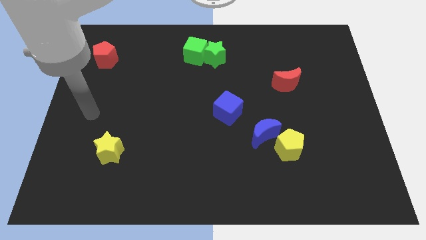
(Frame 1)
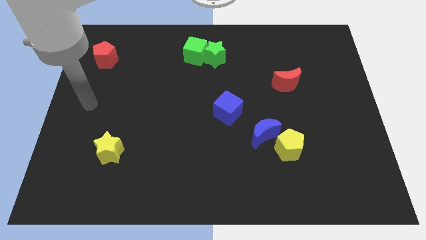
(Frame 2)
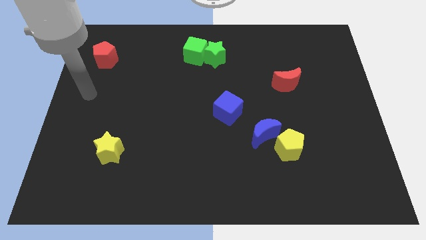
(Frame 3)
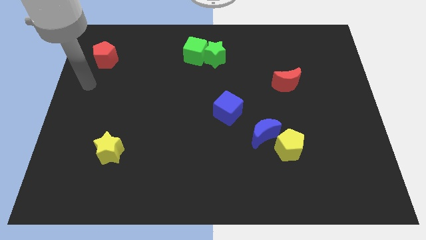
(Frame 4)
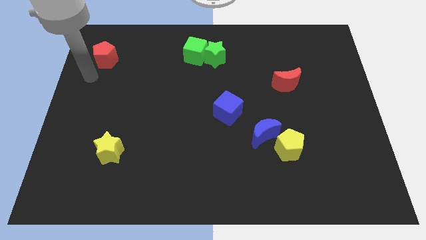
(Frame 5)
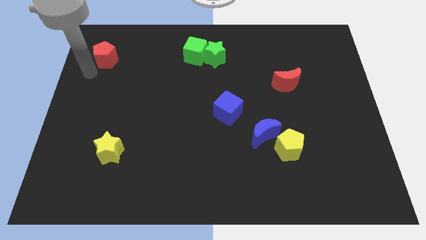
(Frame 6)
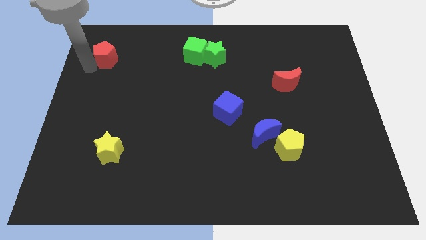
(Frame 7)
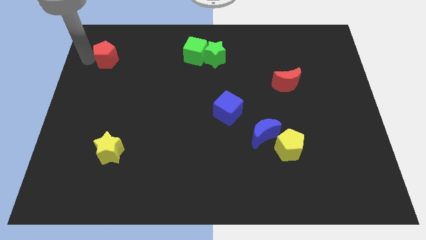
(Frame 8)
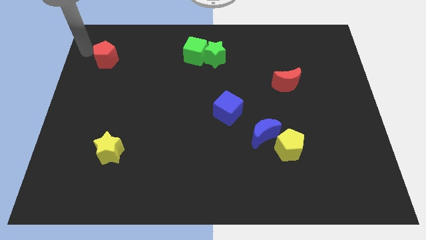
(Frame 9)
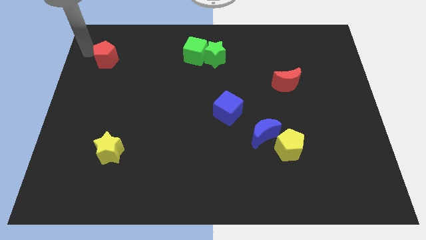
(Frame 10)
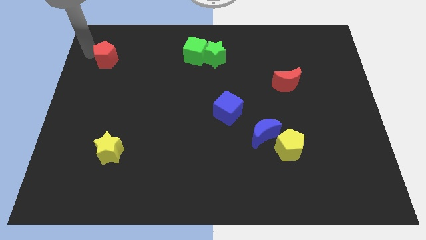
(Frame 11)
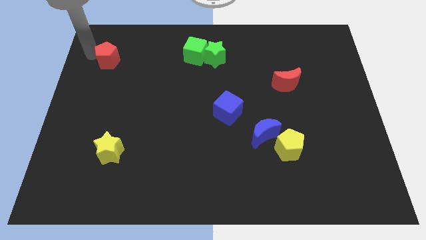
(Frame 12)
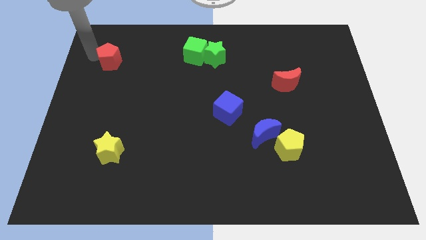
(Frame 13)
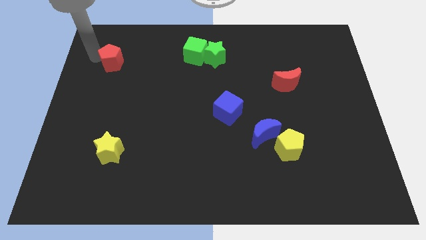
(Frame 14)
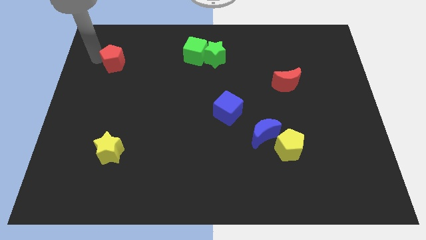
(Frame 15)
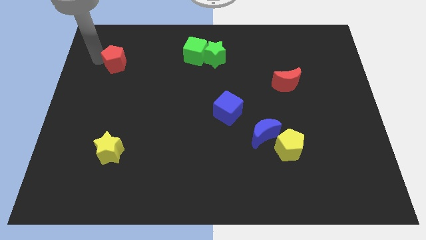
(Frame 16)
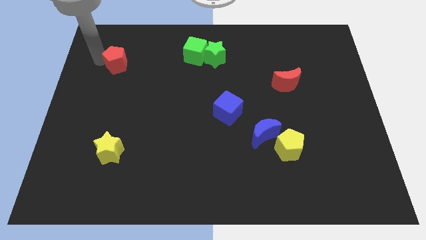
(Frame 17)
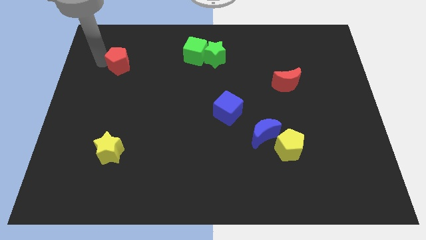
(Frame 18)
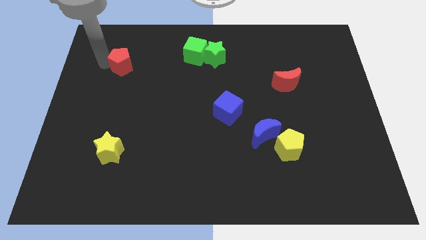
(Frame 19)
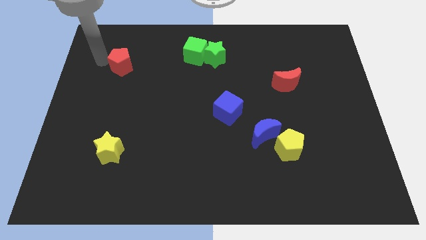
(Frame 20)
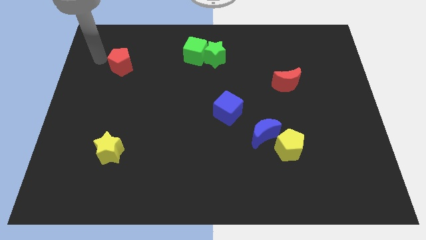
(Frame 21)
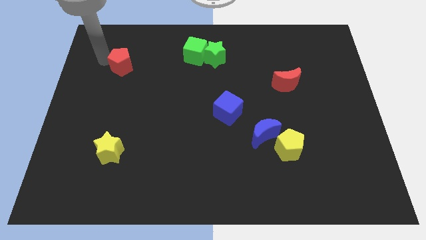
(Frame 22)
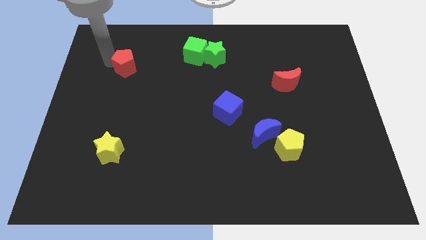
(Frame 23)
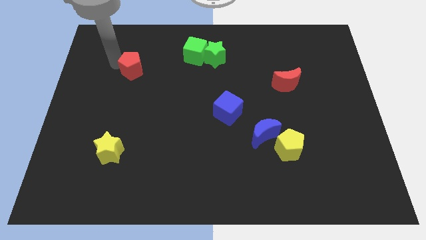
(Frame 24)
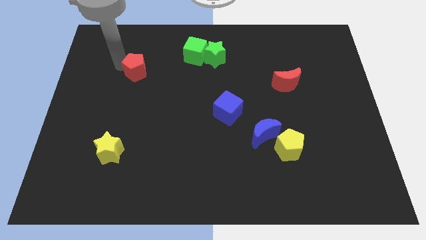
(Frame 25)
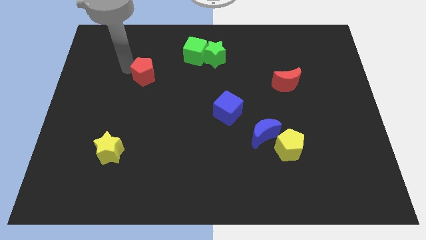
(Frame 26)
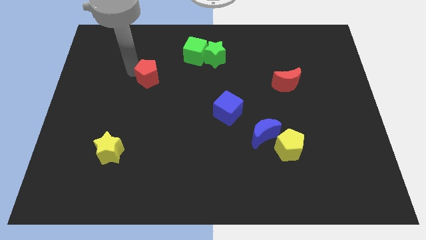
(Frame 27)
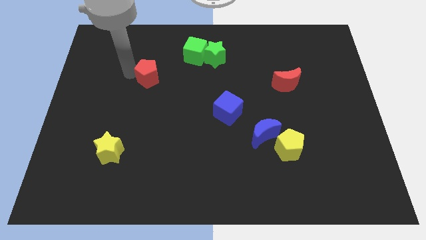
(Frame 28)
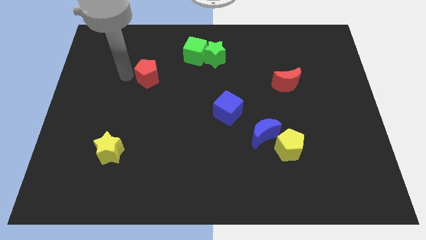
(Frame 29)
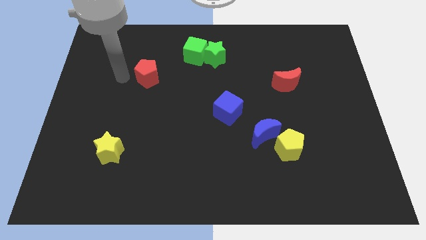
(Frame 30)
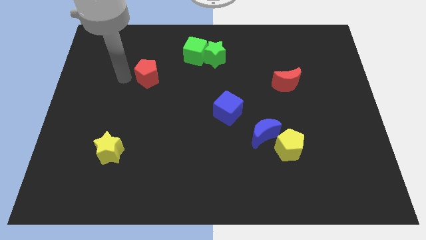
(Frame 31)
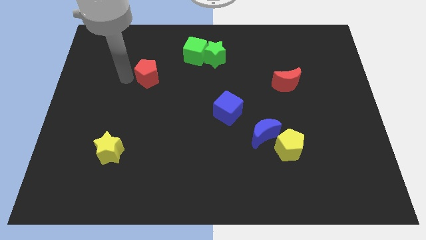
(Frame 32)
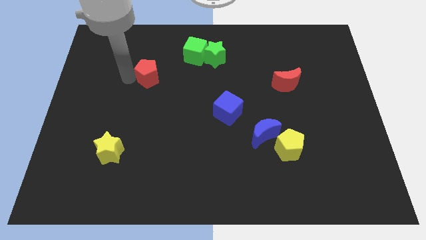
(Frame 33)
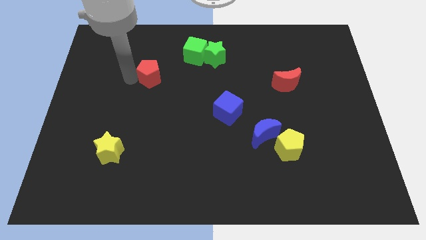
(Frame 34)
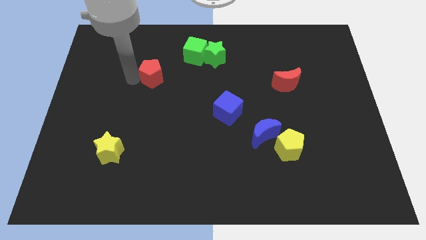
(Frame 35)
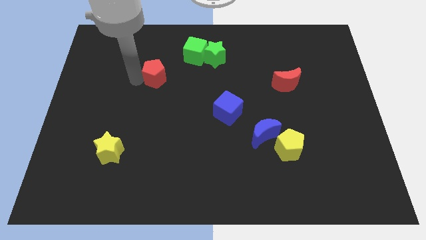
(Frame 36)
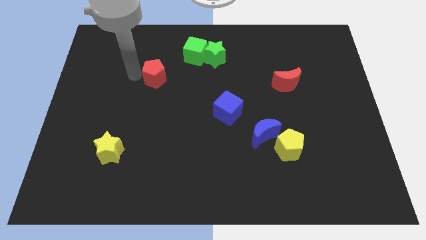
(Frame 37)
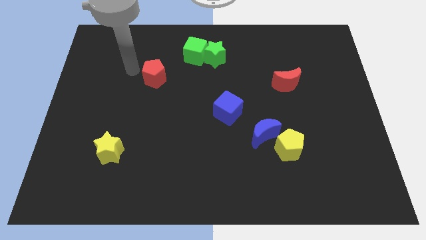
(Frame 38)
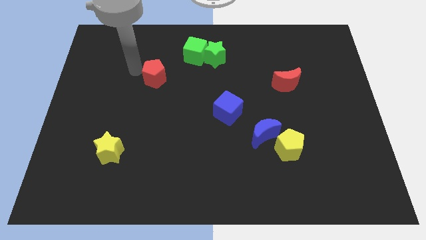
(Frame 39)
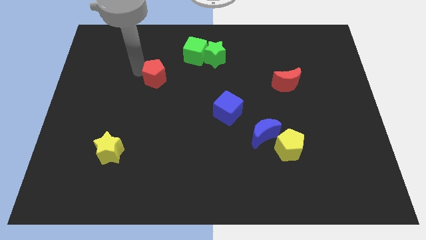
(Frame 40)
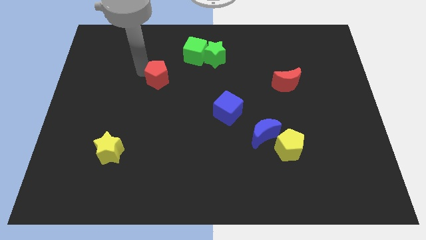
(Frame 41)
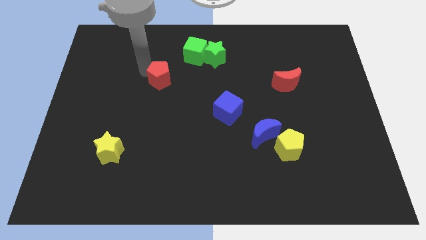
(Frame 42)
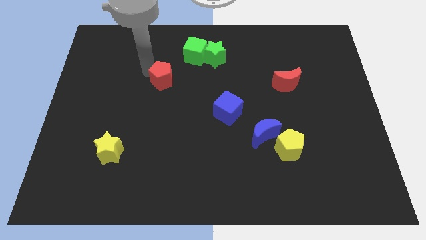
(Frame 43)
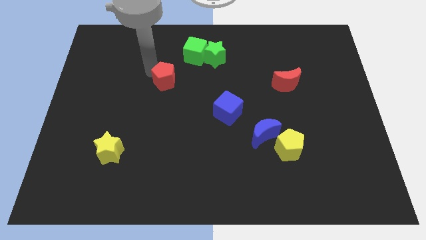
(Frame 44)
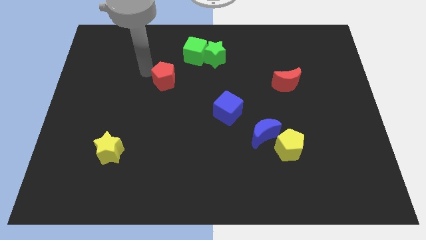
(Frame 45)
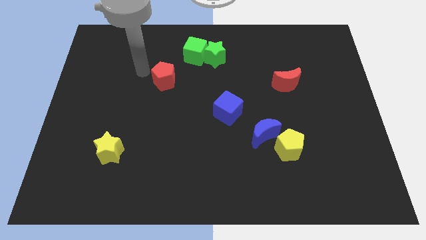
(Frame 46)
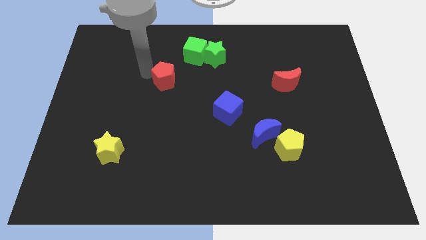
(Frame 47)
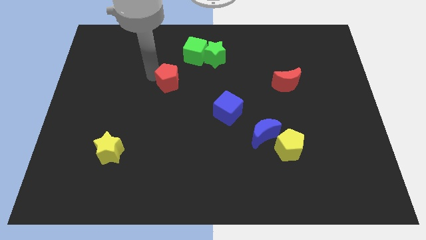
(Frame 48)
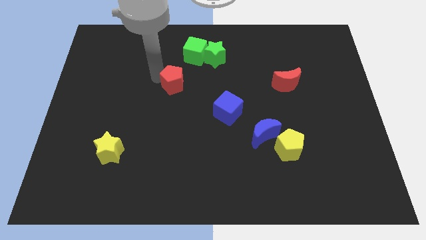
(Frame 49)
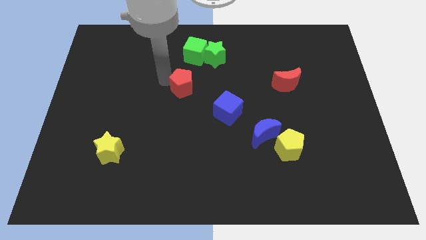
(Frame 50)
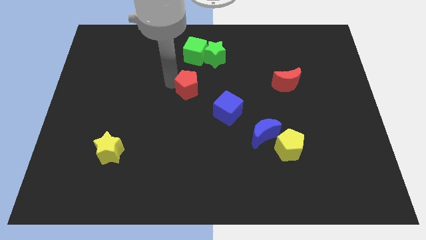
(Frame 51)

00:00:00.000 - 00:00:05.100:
slide the red pentagon to the top left of the blue cube

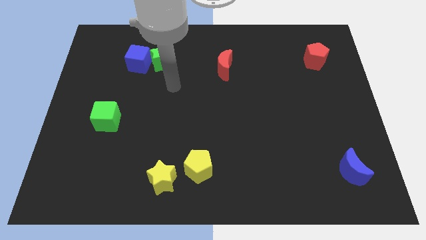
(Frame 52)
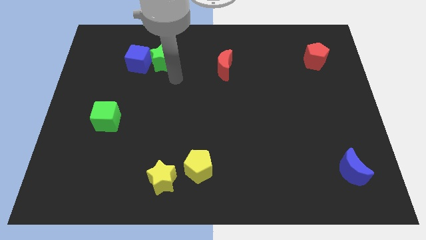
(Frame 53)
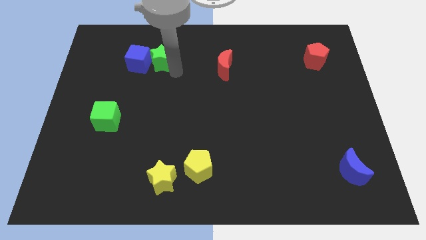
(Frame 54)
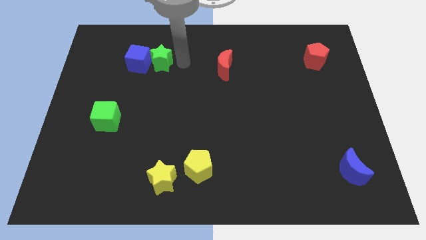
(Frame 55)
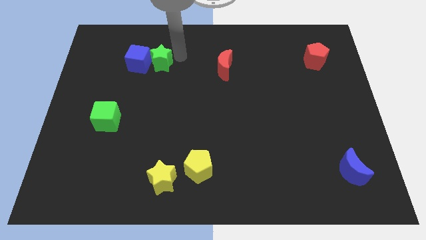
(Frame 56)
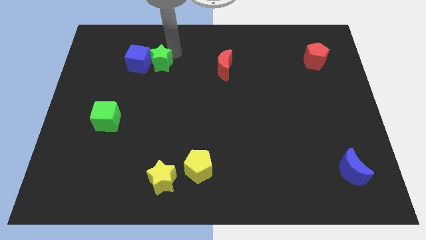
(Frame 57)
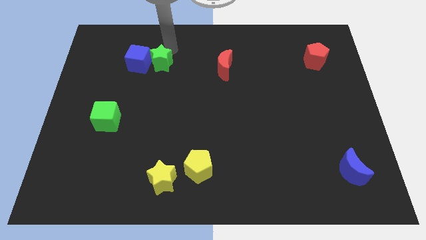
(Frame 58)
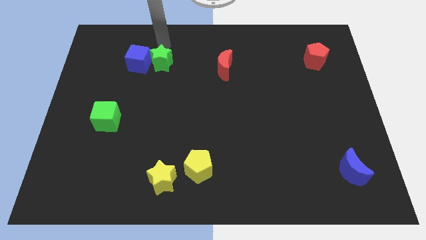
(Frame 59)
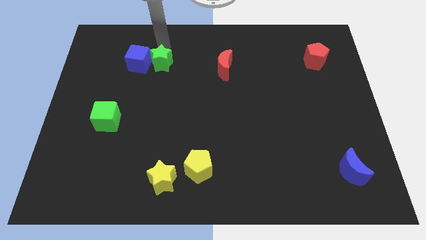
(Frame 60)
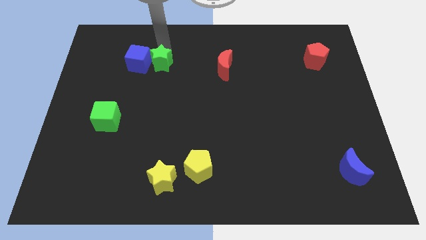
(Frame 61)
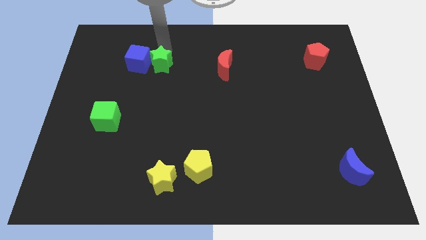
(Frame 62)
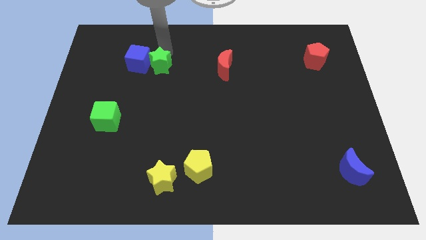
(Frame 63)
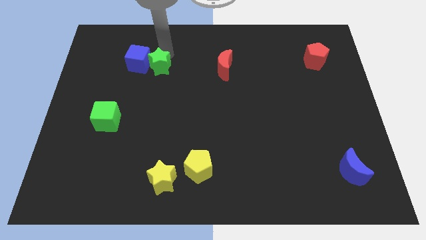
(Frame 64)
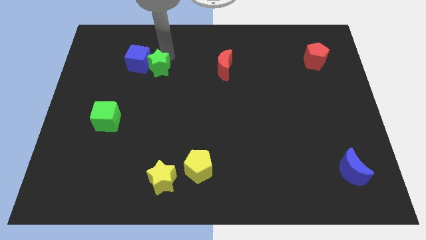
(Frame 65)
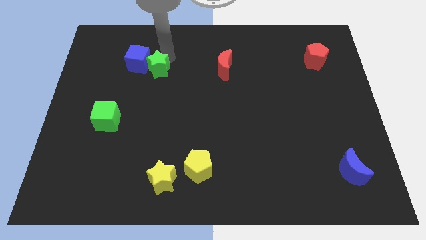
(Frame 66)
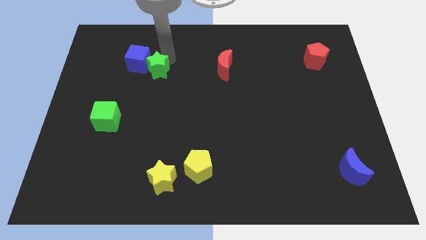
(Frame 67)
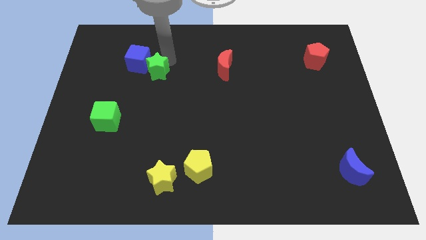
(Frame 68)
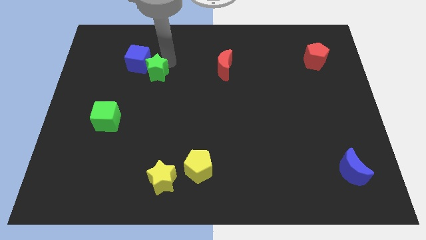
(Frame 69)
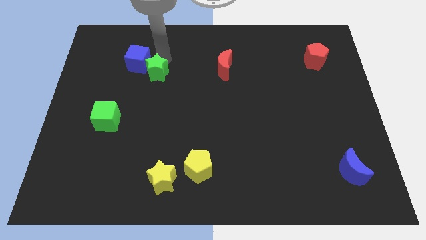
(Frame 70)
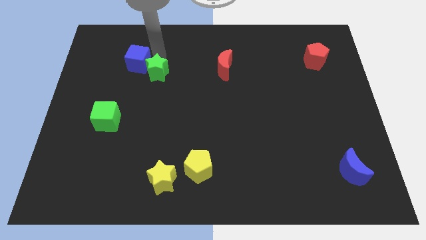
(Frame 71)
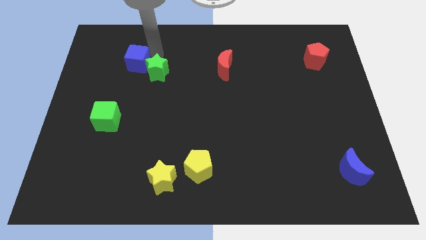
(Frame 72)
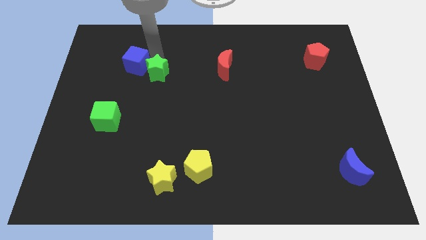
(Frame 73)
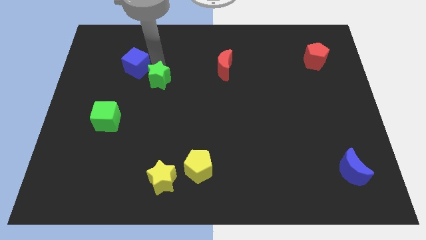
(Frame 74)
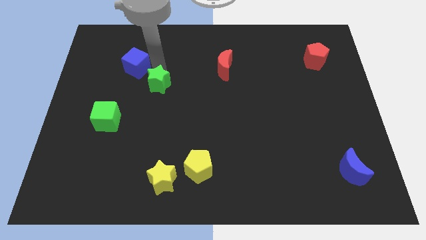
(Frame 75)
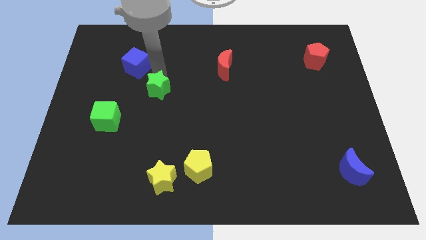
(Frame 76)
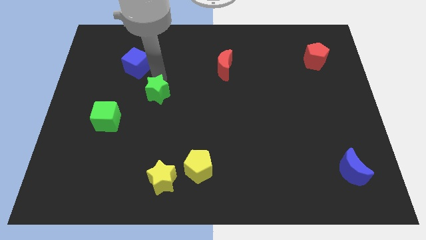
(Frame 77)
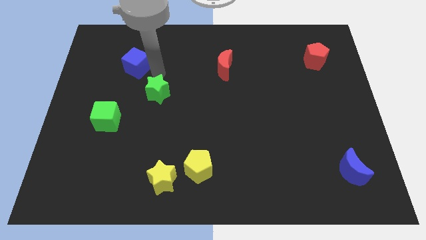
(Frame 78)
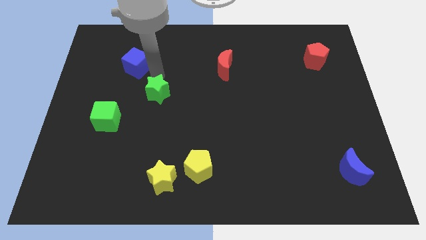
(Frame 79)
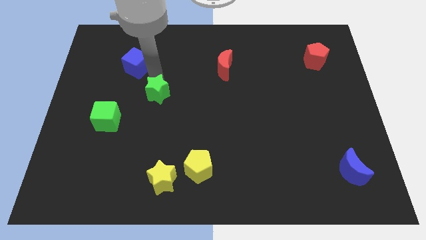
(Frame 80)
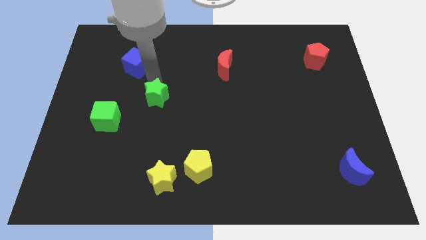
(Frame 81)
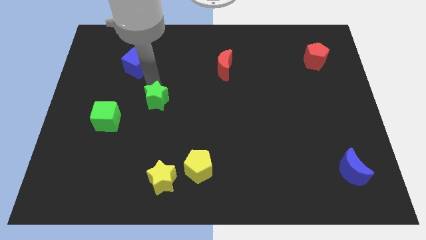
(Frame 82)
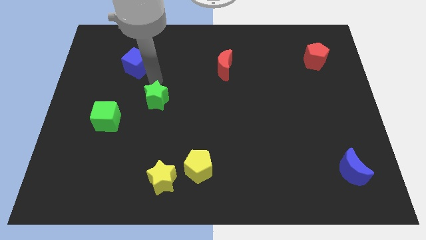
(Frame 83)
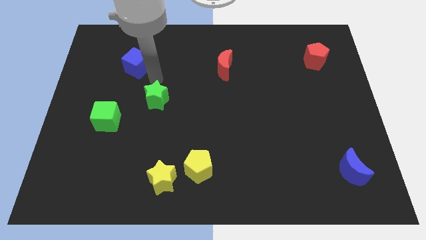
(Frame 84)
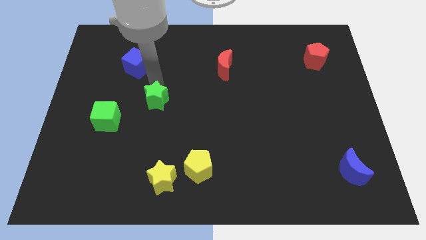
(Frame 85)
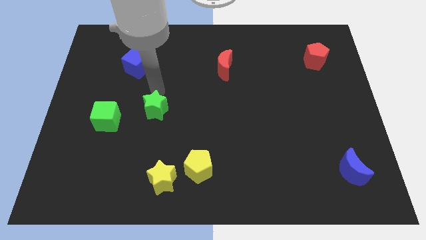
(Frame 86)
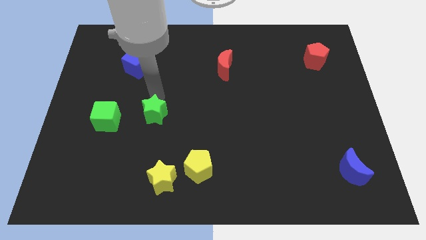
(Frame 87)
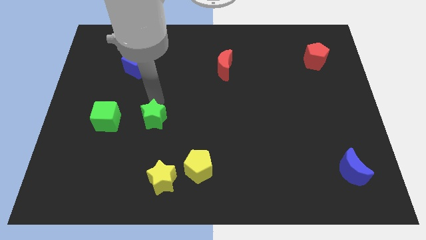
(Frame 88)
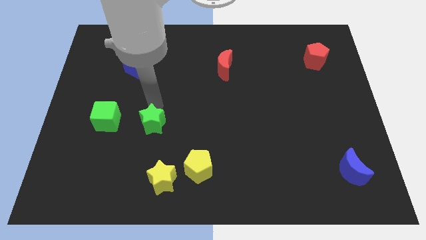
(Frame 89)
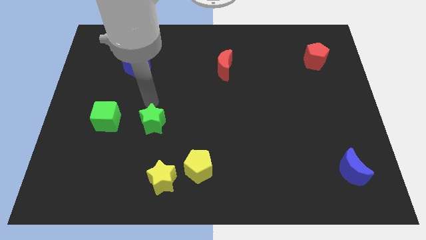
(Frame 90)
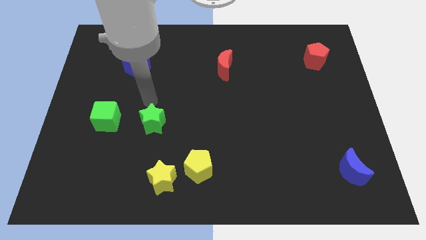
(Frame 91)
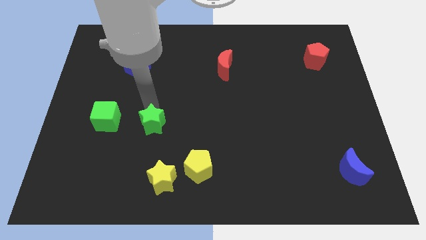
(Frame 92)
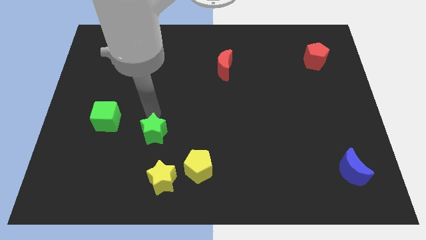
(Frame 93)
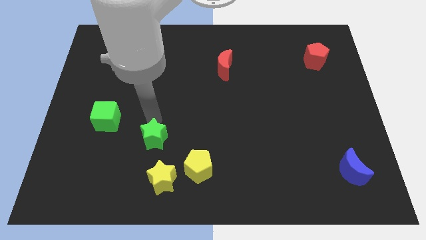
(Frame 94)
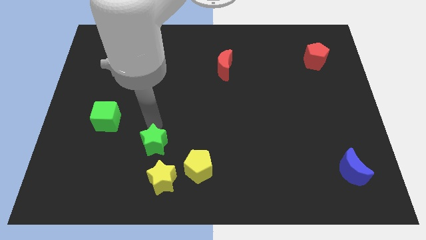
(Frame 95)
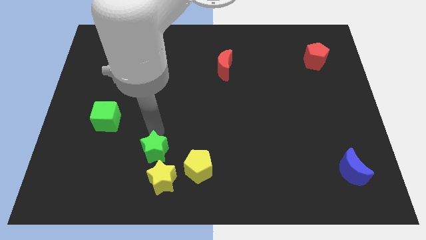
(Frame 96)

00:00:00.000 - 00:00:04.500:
slide the green star left of the yellow pentagon
